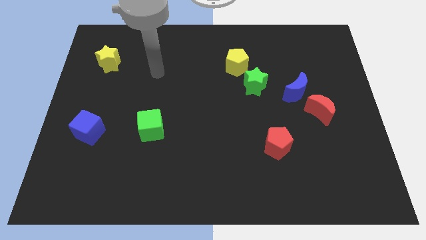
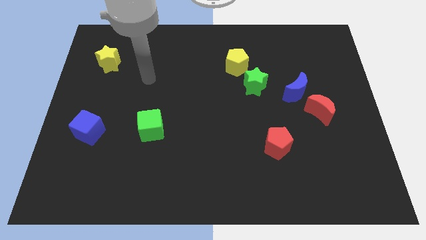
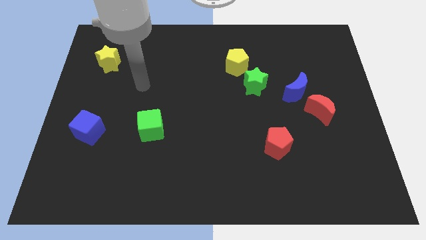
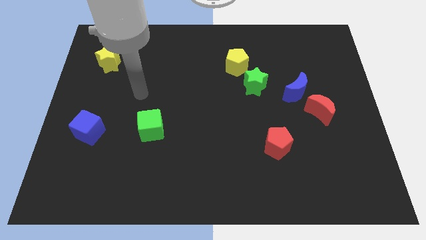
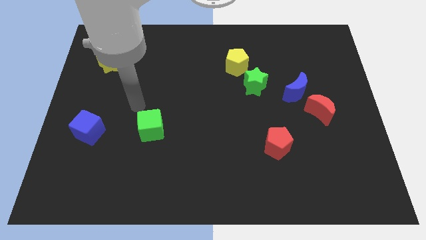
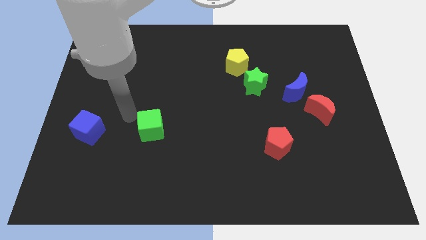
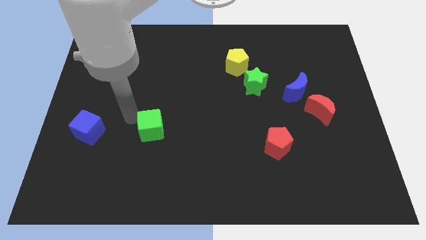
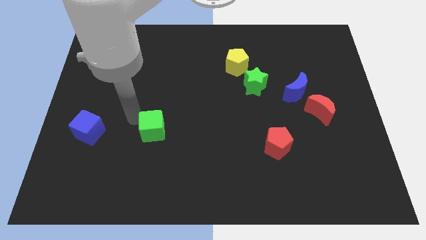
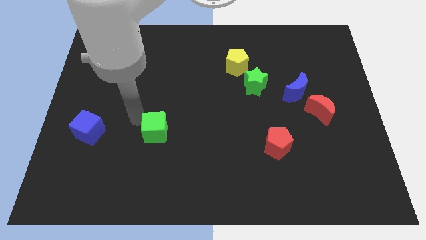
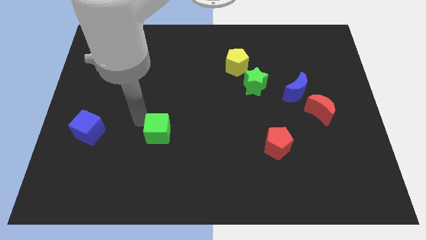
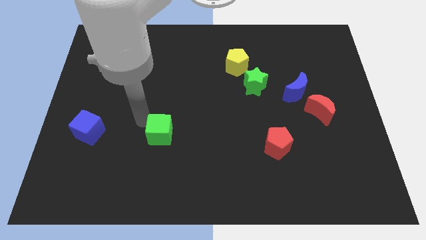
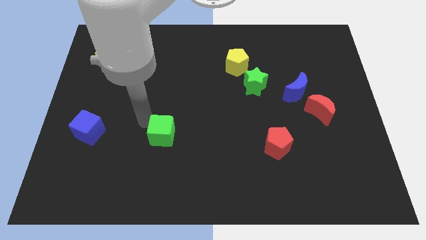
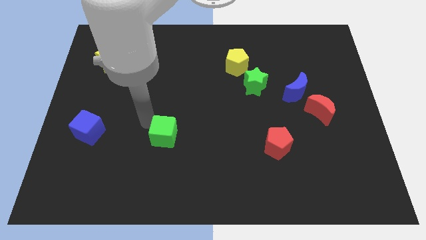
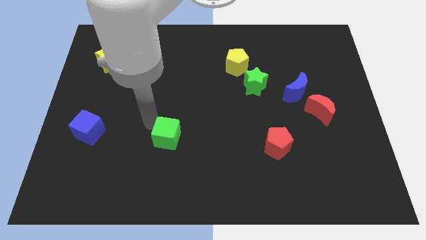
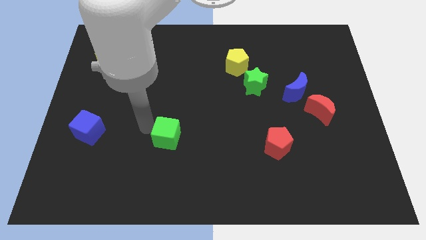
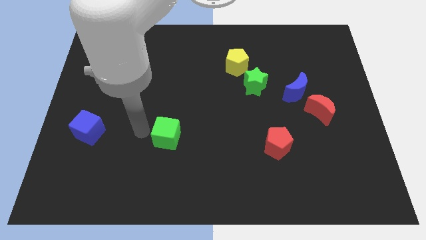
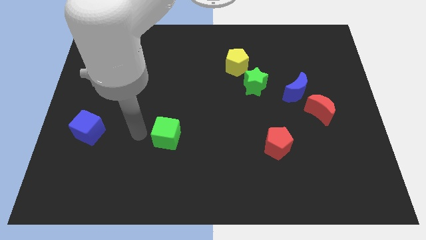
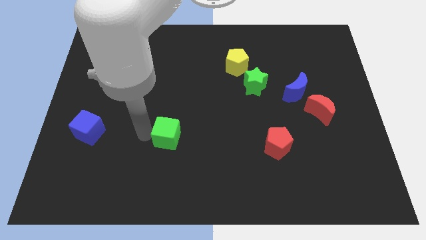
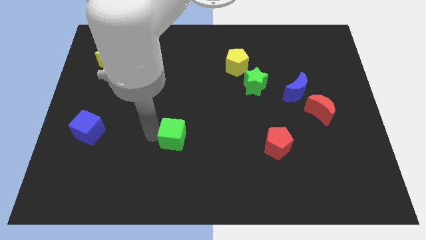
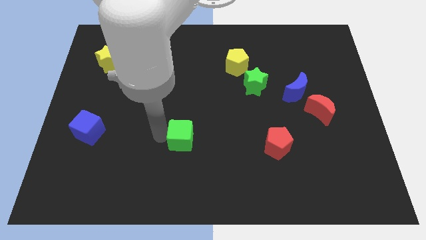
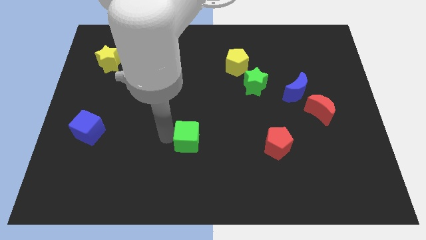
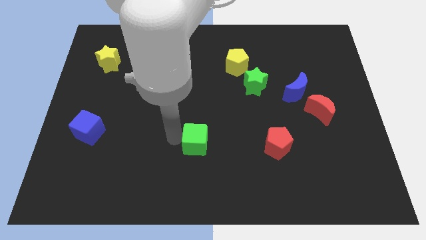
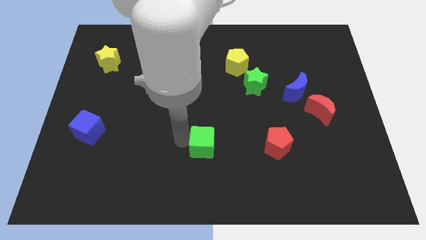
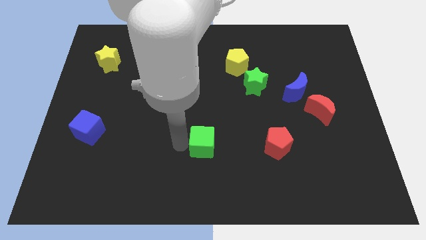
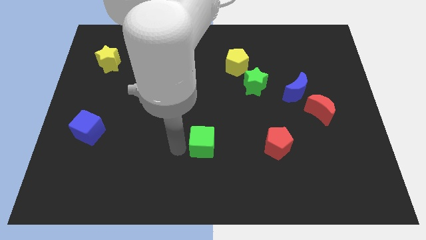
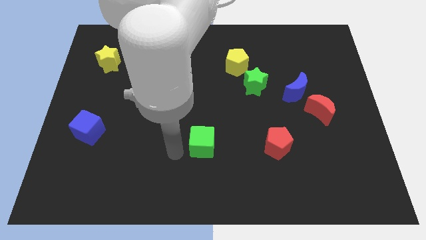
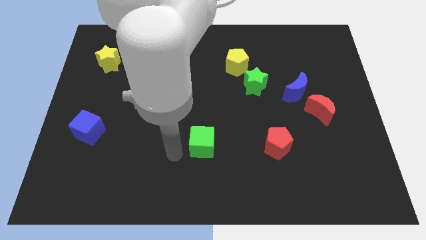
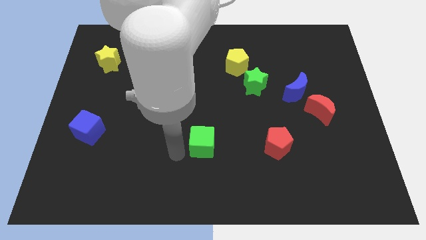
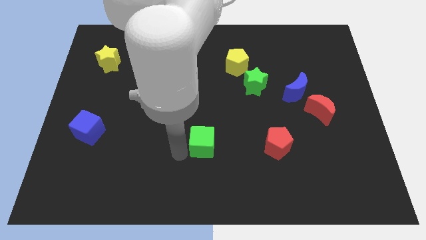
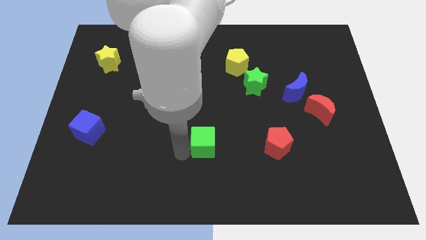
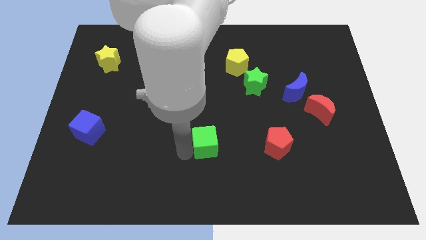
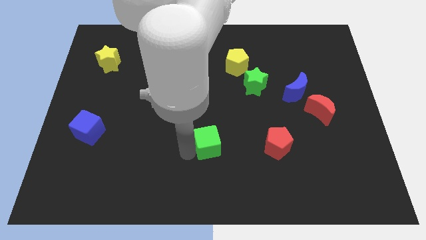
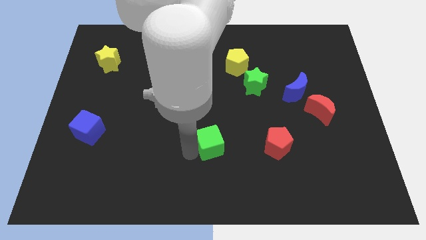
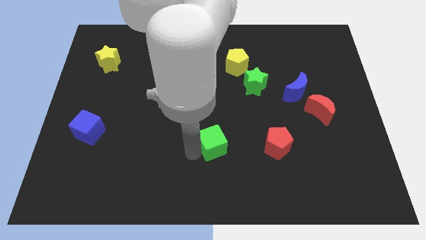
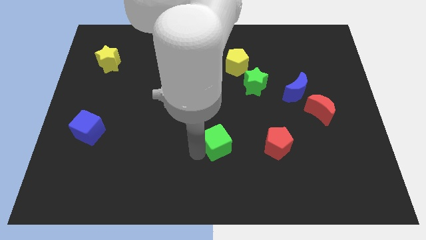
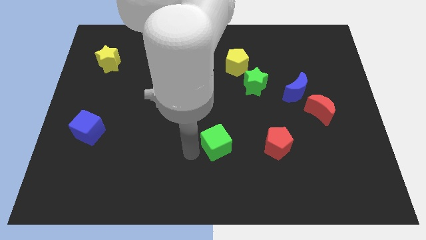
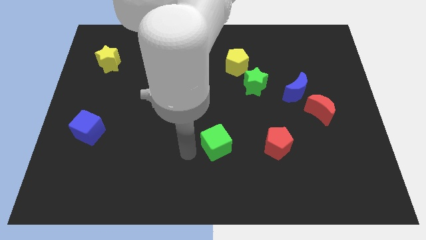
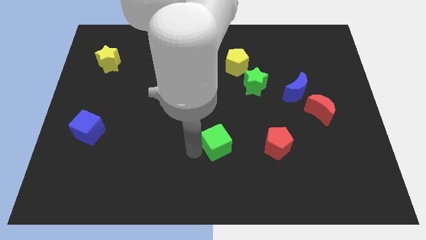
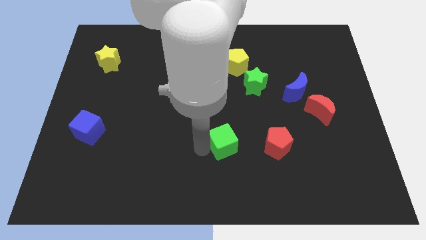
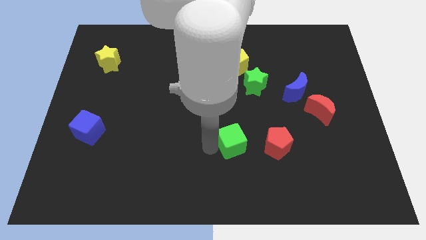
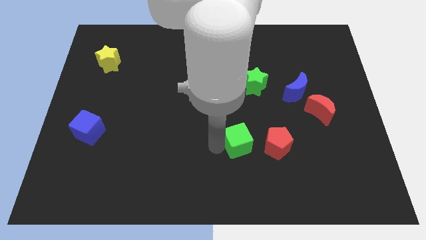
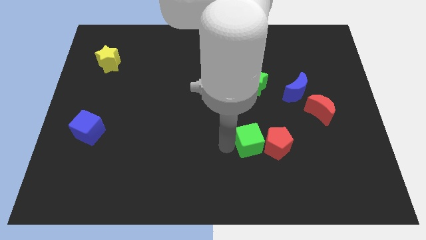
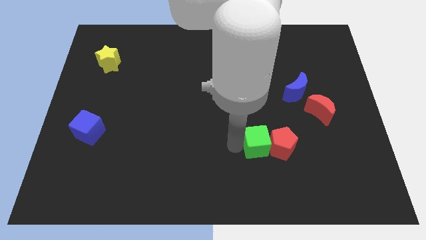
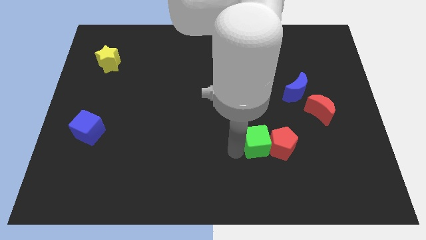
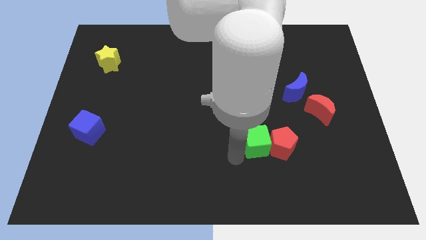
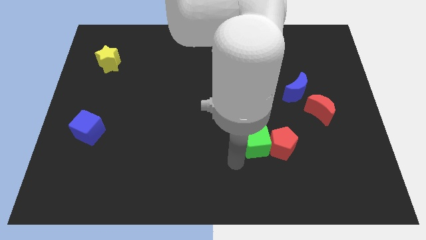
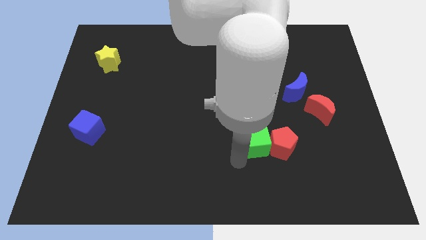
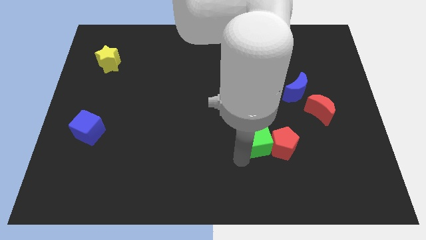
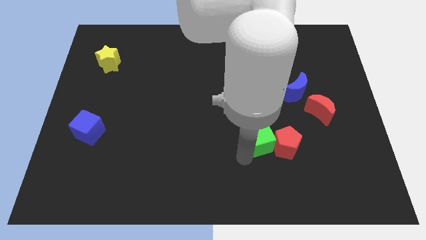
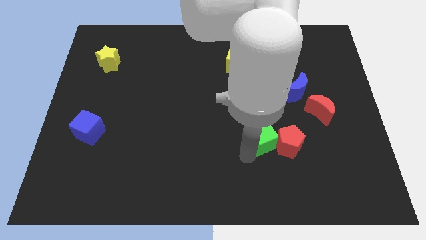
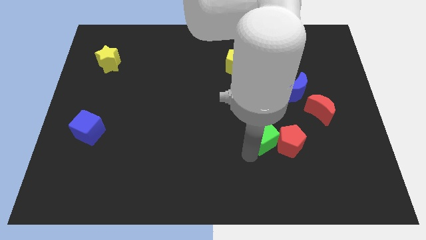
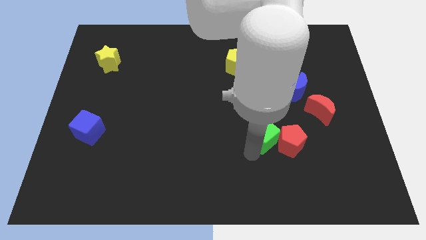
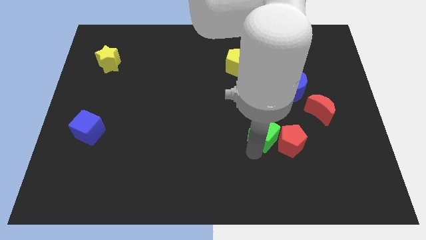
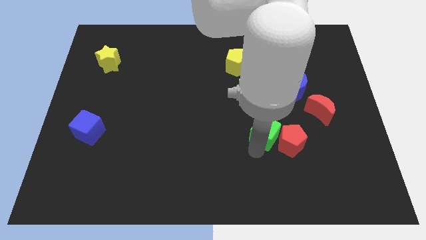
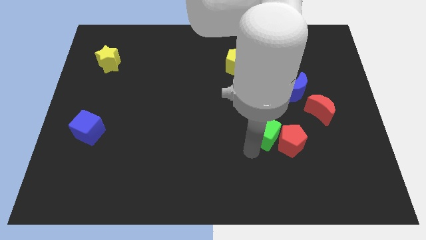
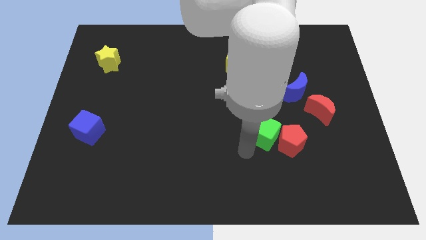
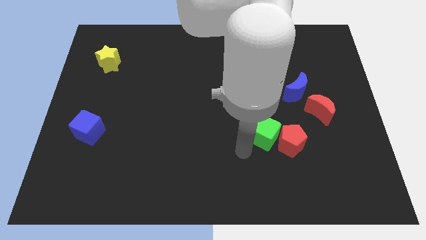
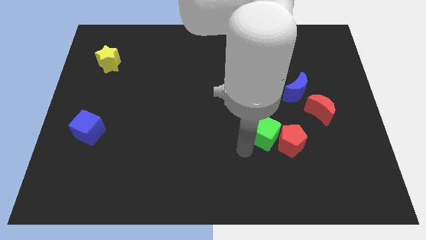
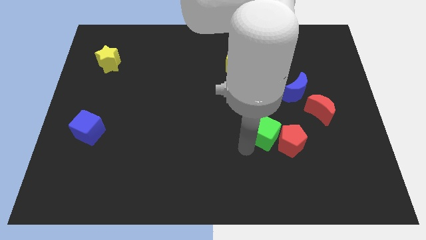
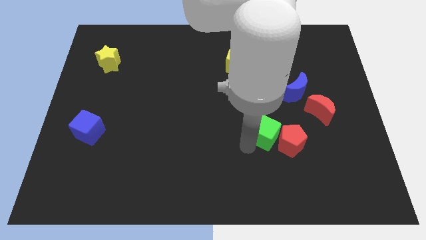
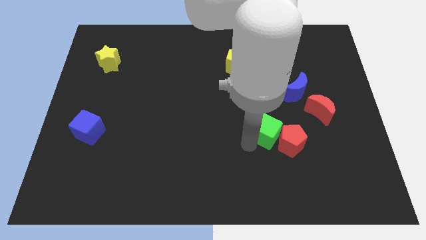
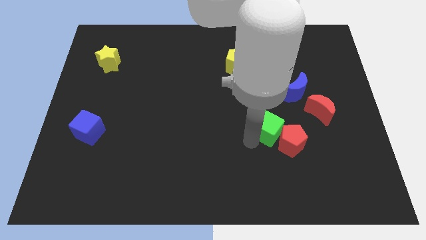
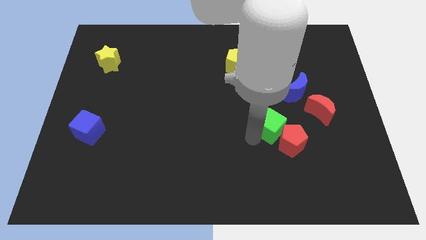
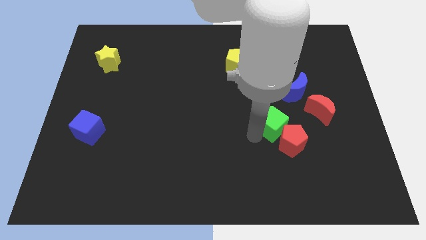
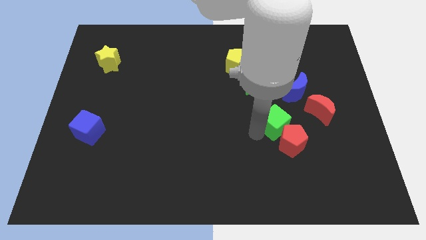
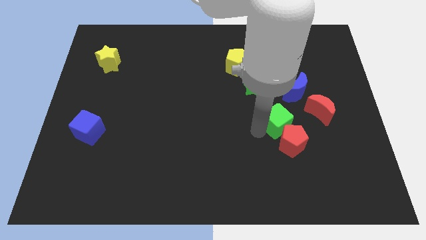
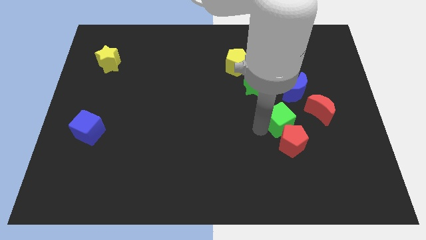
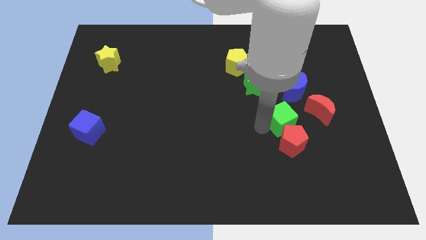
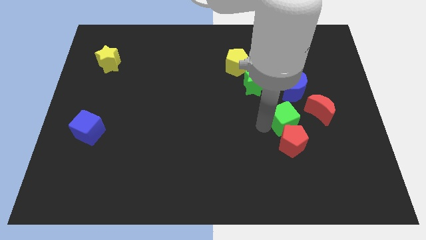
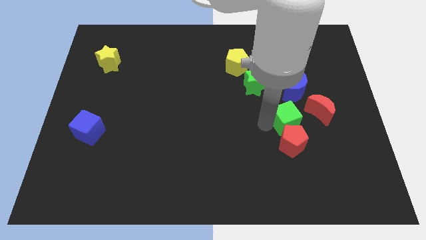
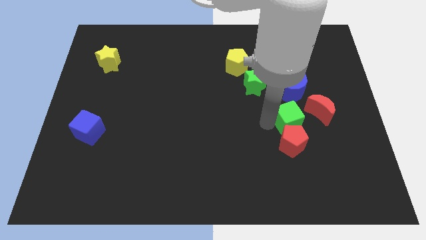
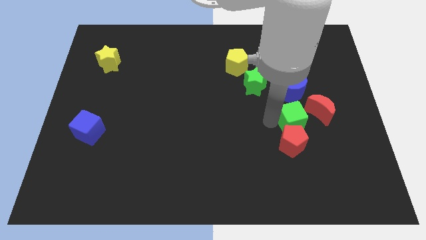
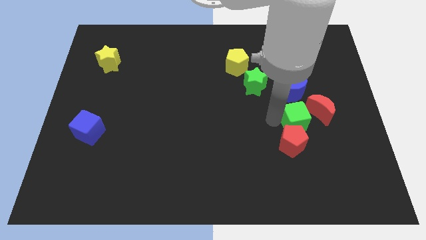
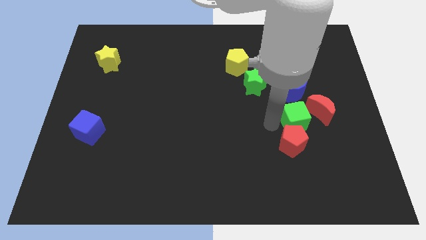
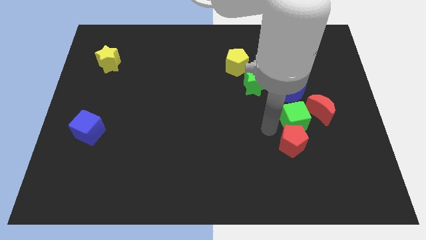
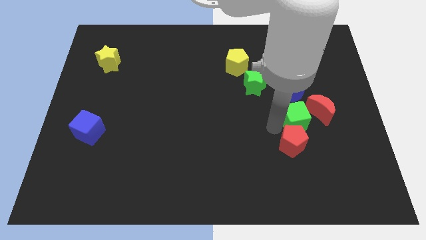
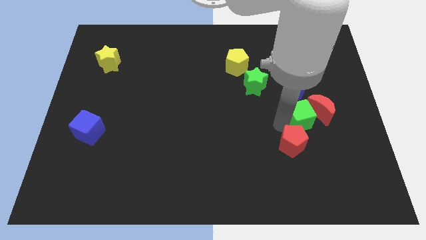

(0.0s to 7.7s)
put the green cube towards the red moon
